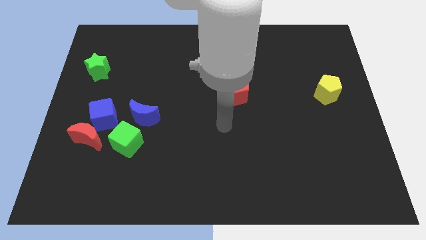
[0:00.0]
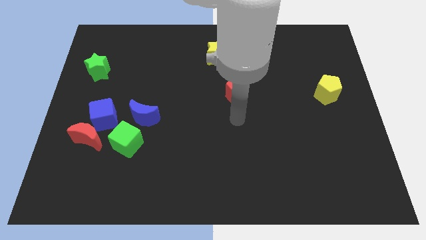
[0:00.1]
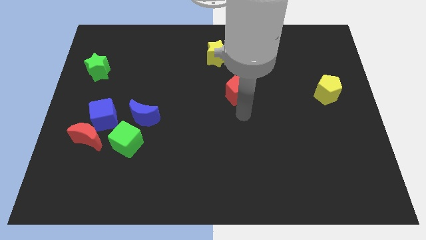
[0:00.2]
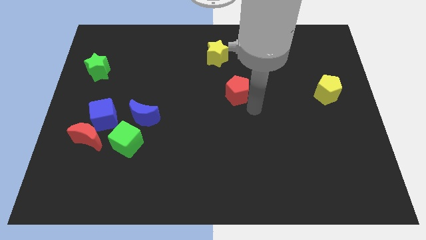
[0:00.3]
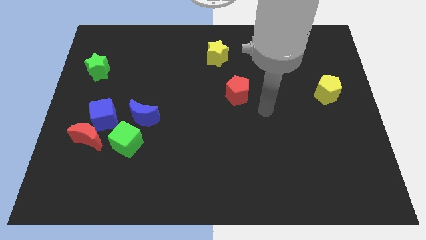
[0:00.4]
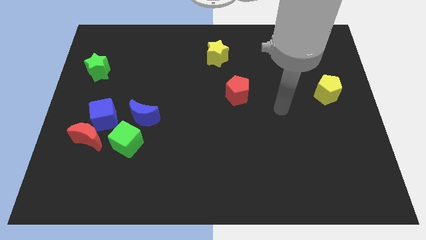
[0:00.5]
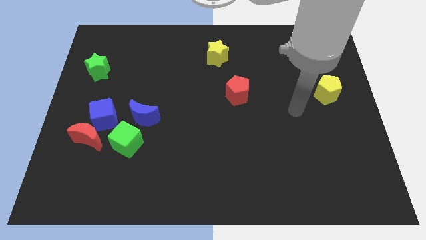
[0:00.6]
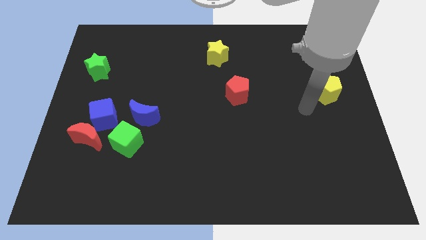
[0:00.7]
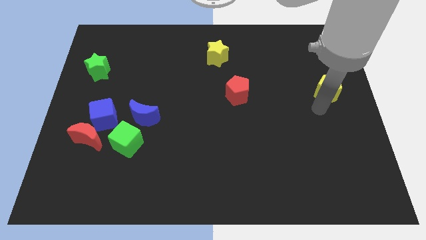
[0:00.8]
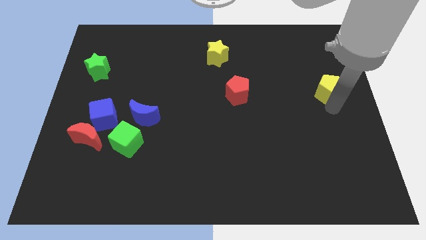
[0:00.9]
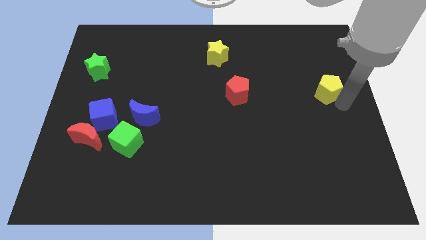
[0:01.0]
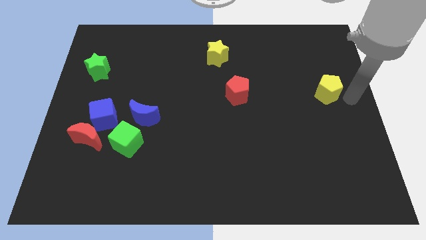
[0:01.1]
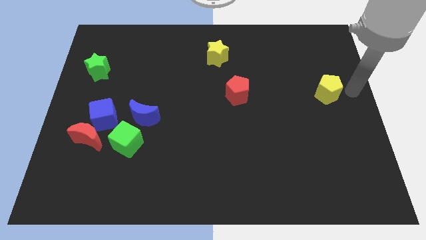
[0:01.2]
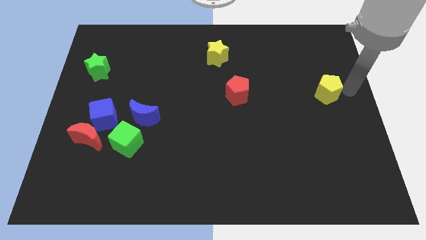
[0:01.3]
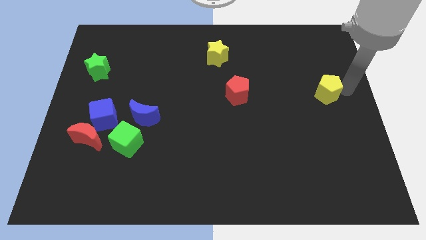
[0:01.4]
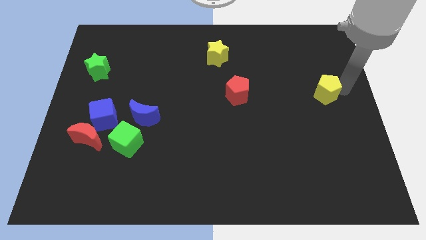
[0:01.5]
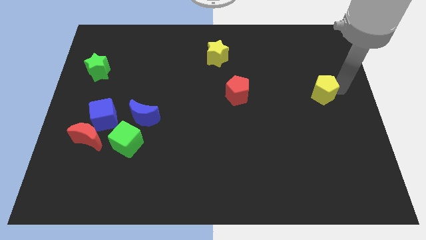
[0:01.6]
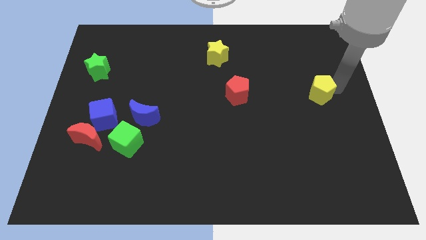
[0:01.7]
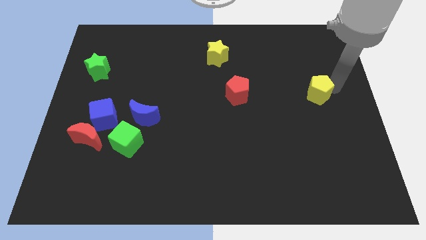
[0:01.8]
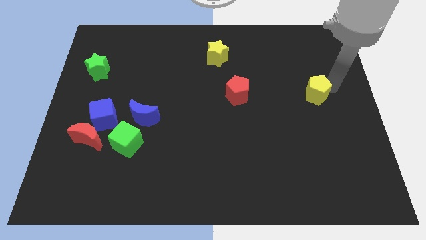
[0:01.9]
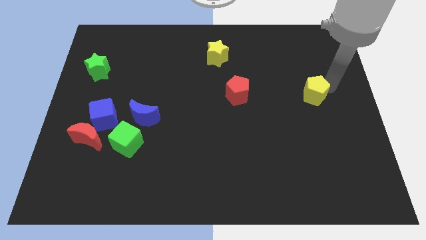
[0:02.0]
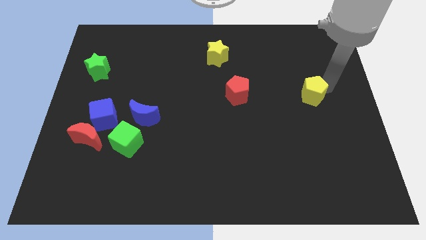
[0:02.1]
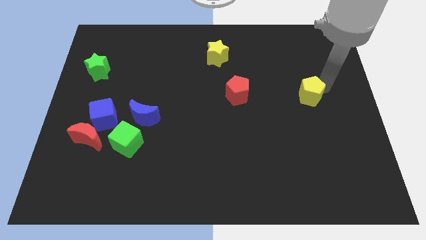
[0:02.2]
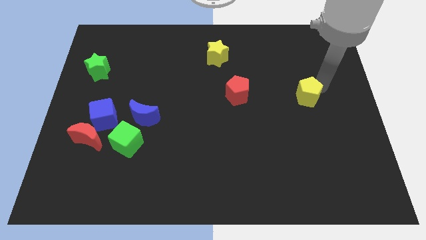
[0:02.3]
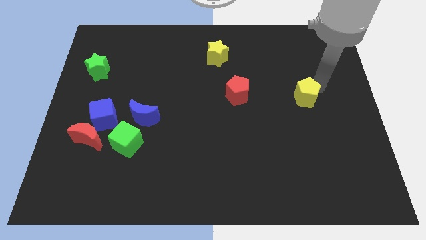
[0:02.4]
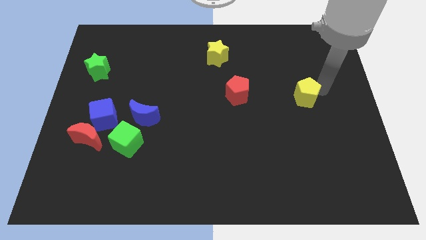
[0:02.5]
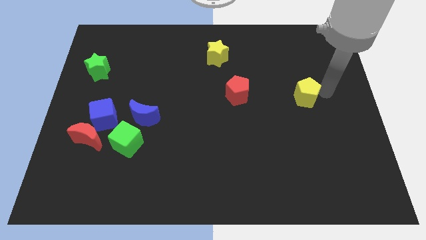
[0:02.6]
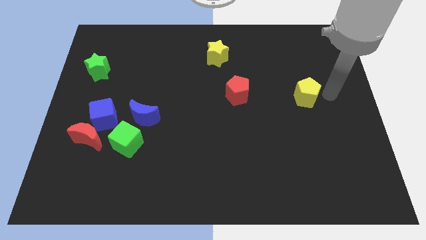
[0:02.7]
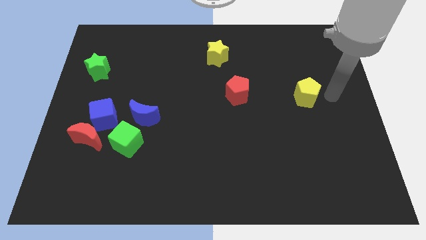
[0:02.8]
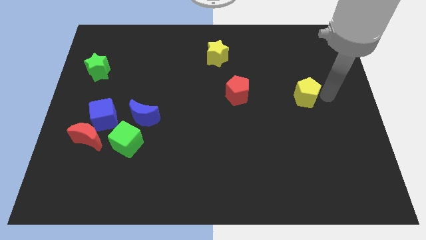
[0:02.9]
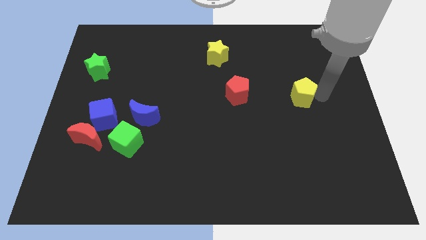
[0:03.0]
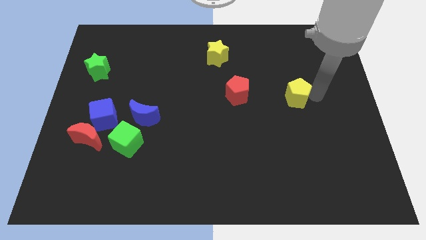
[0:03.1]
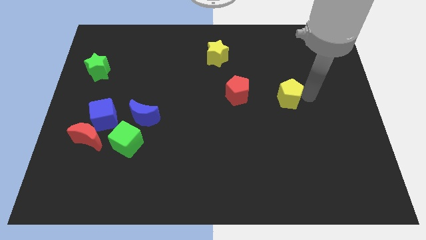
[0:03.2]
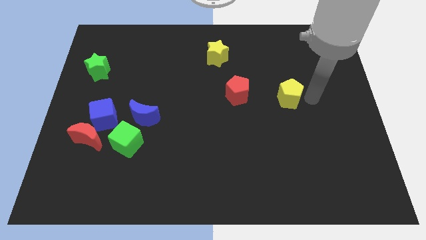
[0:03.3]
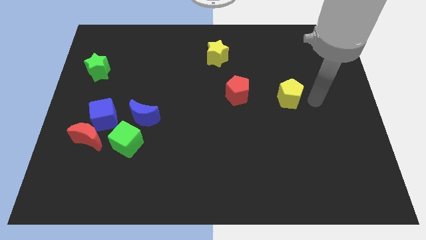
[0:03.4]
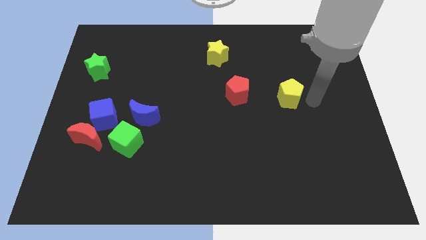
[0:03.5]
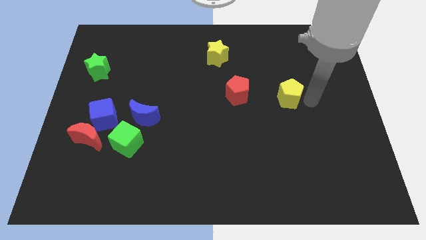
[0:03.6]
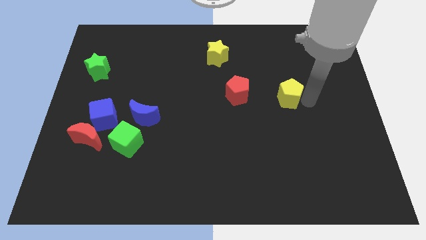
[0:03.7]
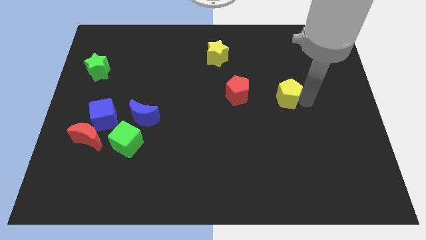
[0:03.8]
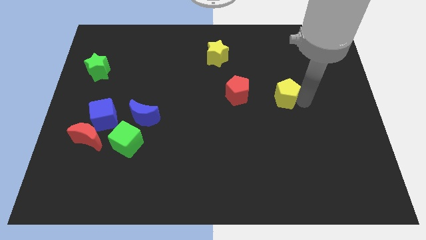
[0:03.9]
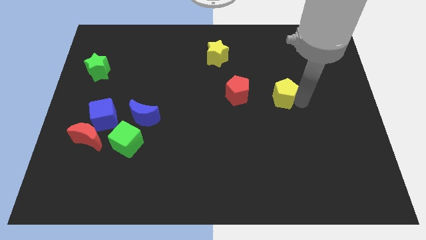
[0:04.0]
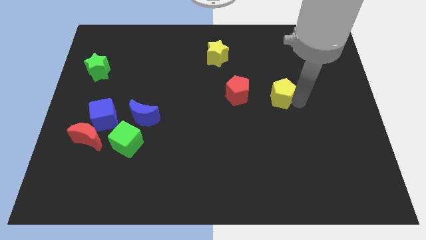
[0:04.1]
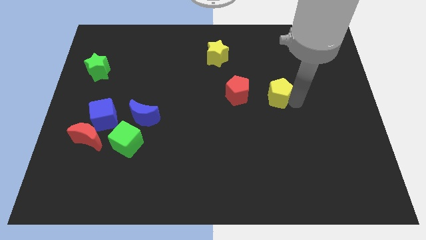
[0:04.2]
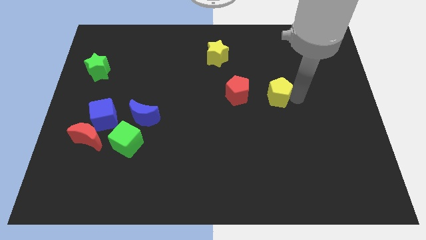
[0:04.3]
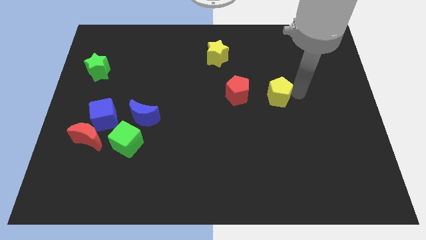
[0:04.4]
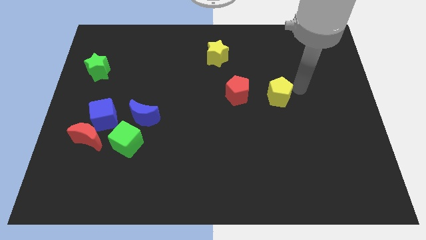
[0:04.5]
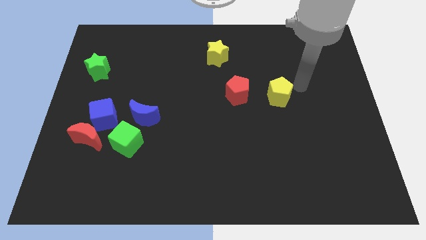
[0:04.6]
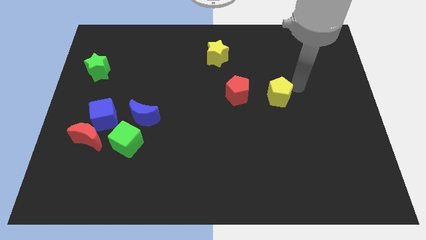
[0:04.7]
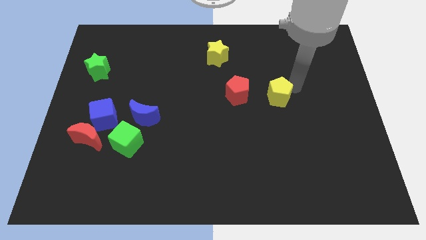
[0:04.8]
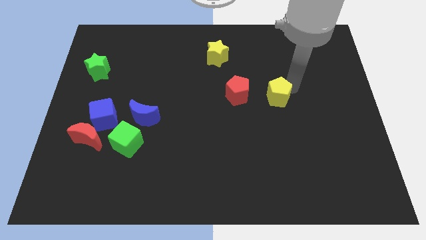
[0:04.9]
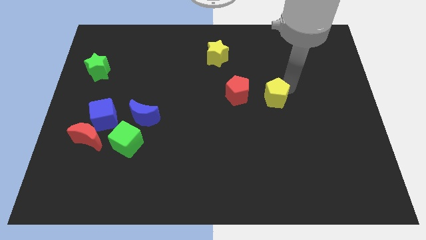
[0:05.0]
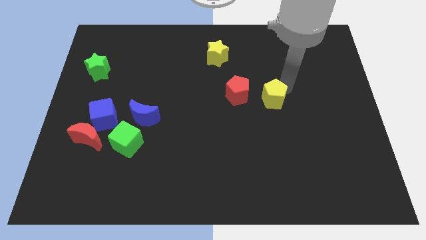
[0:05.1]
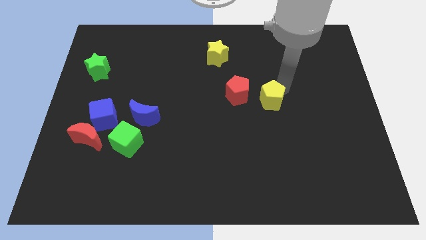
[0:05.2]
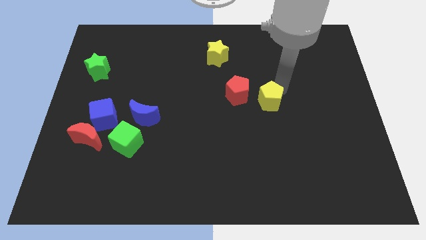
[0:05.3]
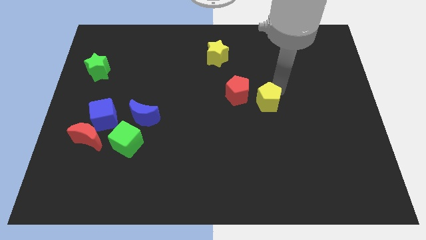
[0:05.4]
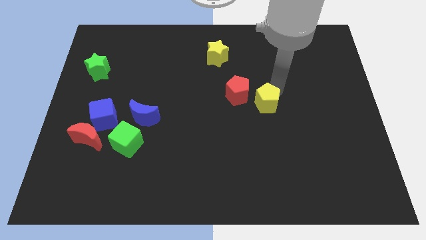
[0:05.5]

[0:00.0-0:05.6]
move the yellow pentagon to the middle of the board
